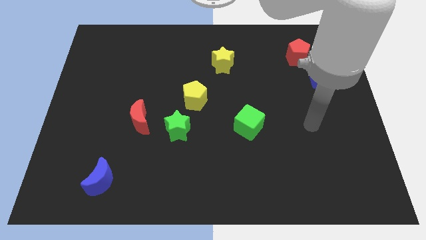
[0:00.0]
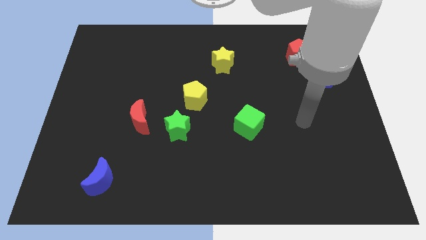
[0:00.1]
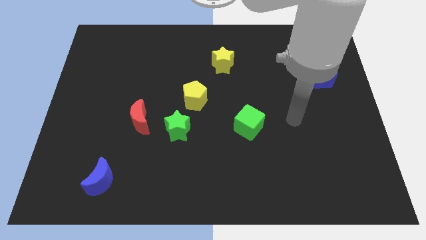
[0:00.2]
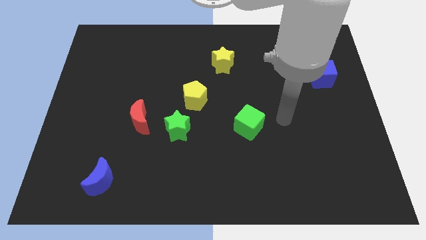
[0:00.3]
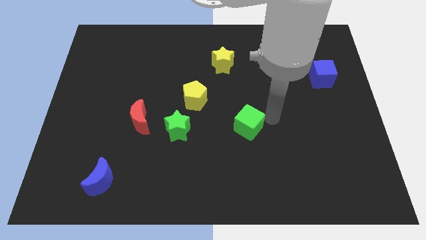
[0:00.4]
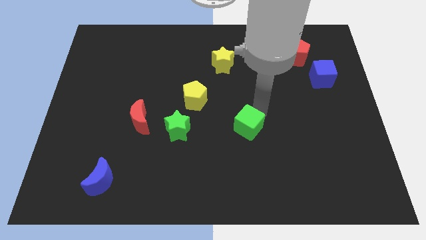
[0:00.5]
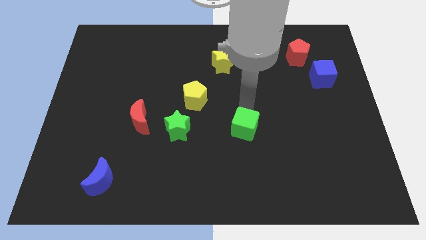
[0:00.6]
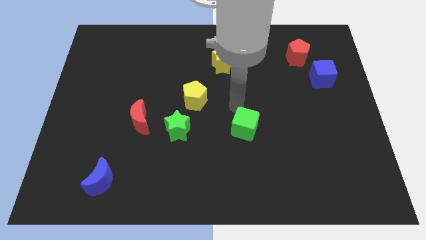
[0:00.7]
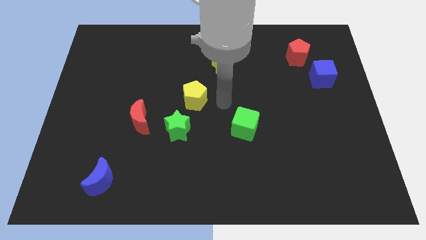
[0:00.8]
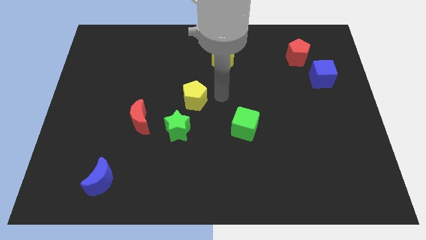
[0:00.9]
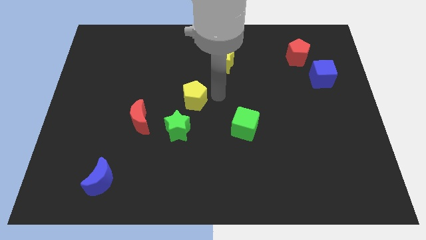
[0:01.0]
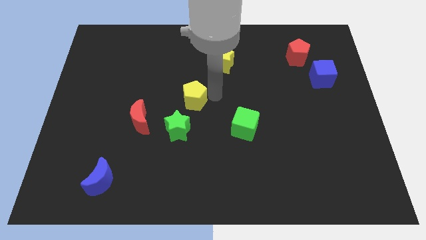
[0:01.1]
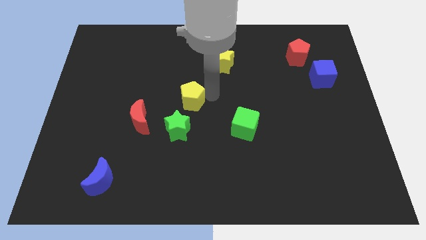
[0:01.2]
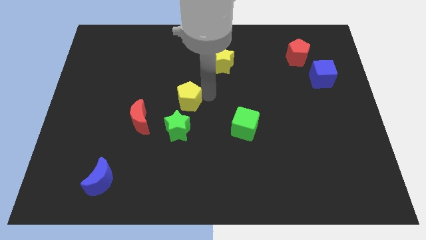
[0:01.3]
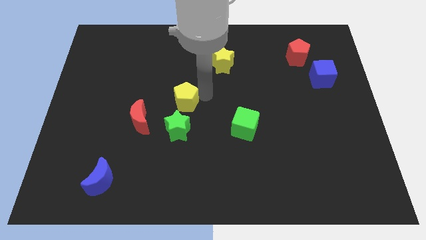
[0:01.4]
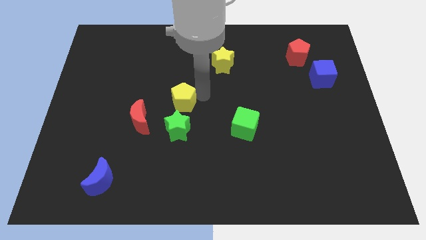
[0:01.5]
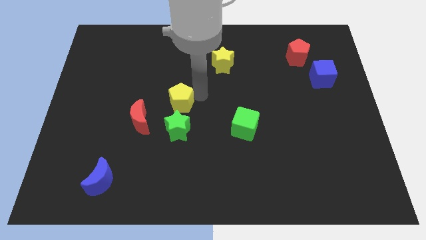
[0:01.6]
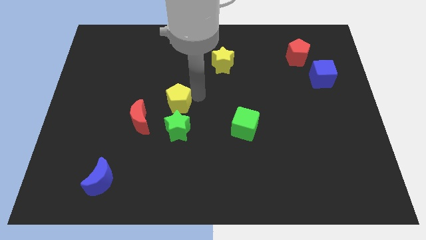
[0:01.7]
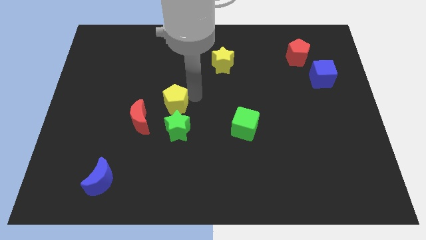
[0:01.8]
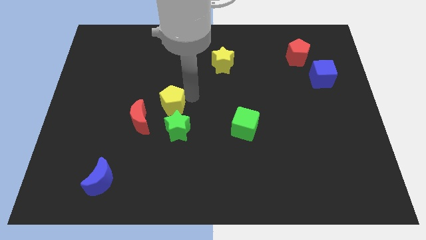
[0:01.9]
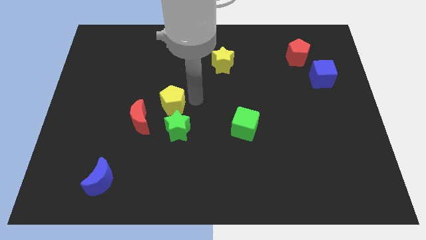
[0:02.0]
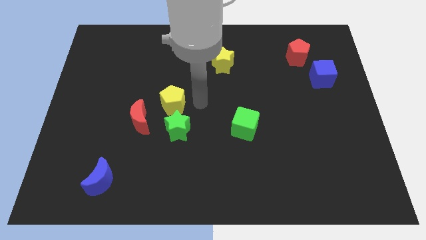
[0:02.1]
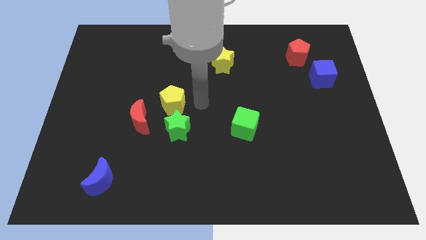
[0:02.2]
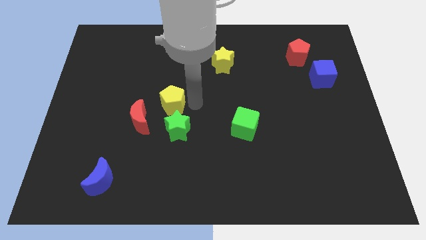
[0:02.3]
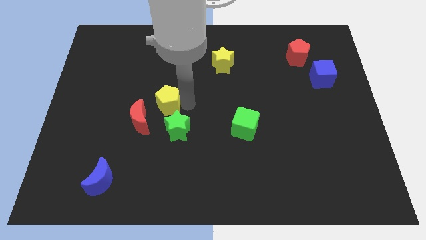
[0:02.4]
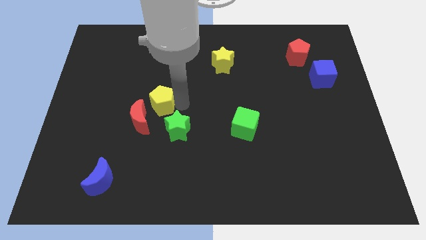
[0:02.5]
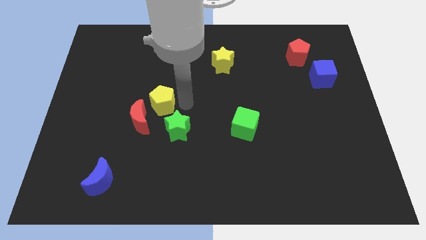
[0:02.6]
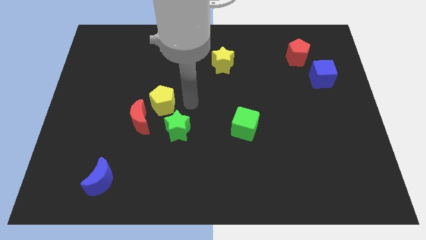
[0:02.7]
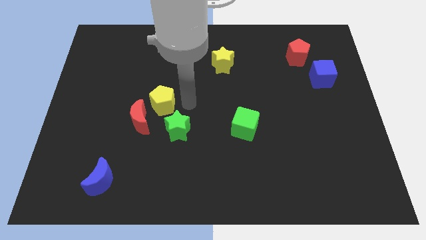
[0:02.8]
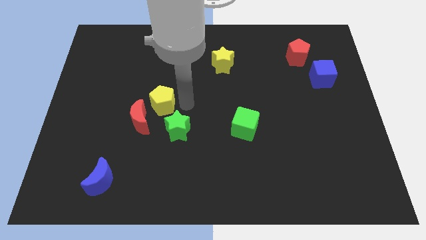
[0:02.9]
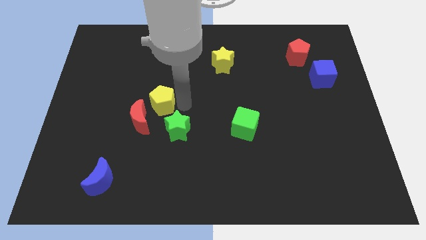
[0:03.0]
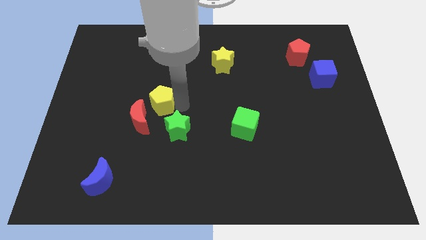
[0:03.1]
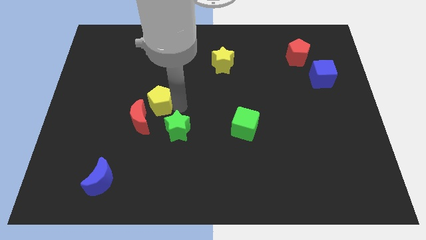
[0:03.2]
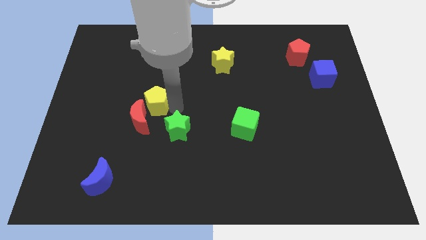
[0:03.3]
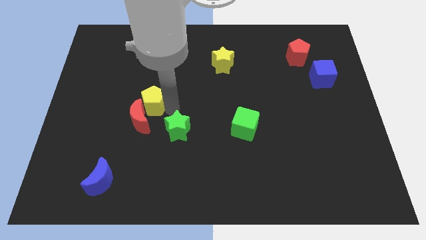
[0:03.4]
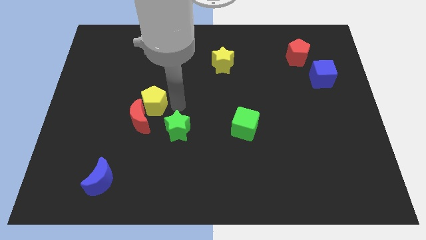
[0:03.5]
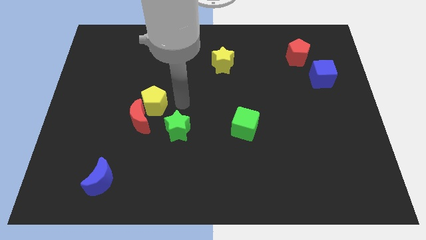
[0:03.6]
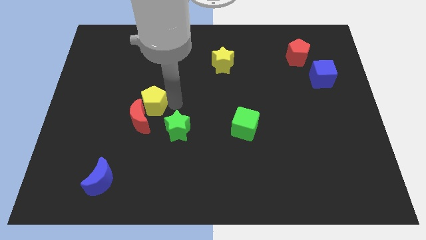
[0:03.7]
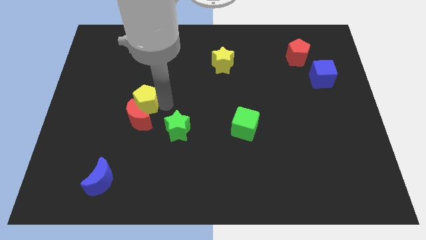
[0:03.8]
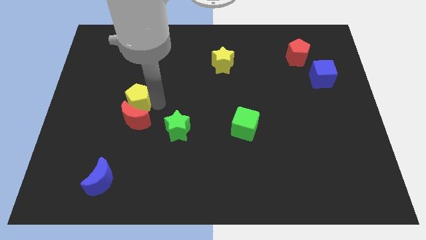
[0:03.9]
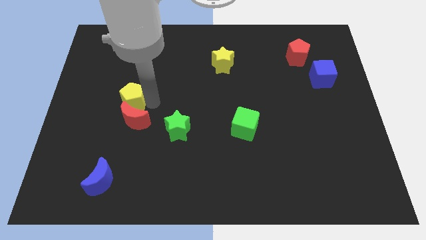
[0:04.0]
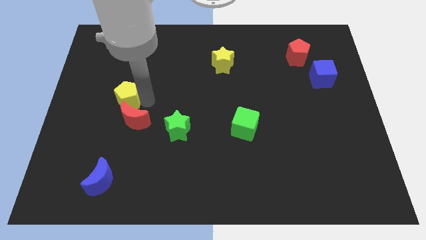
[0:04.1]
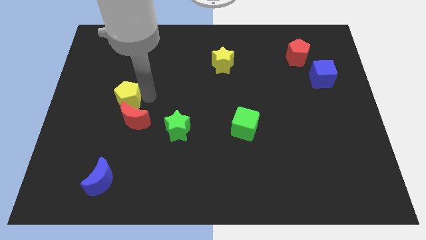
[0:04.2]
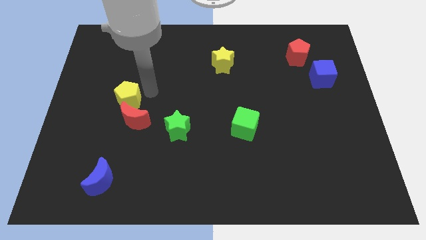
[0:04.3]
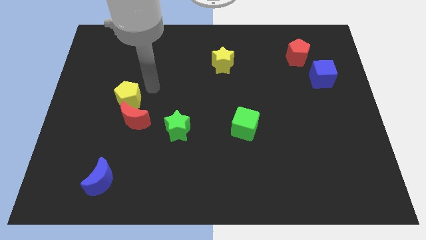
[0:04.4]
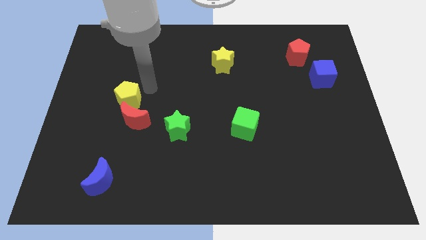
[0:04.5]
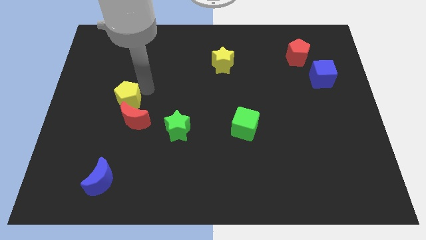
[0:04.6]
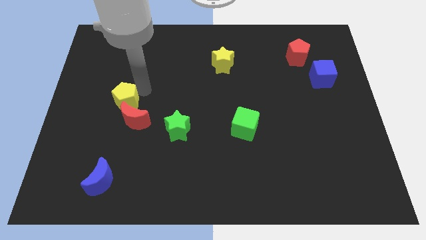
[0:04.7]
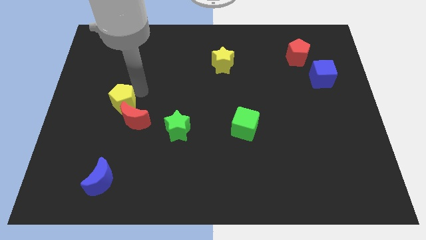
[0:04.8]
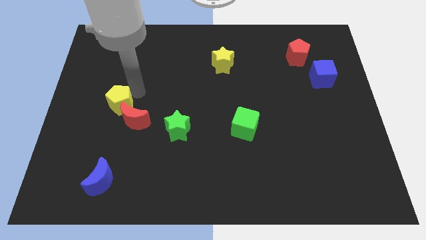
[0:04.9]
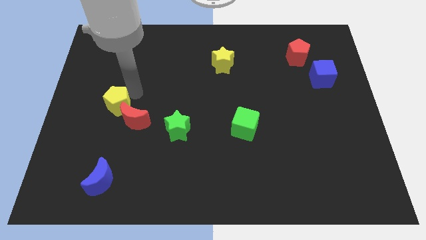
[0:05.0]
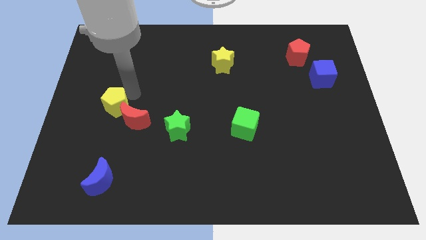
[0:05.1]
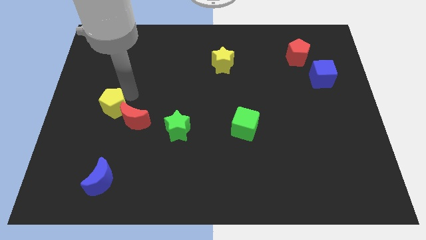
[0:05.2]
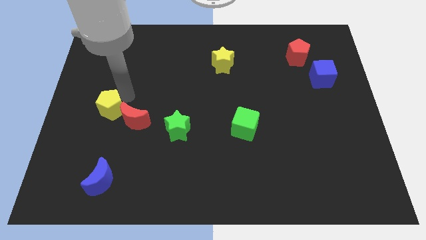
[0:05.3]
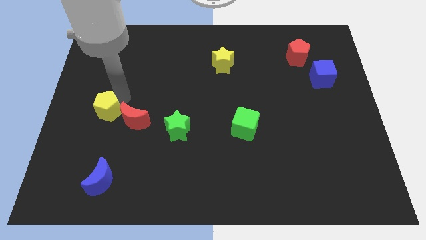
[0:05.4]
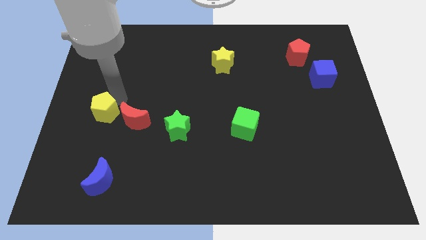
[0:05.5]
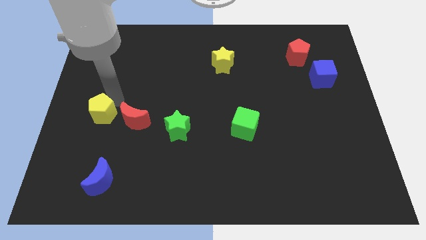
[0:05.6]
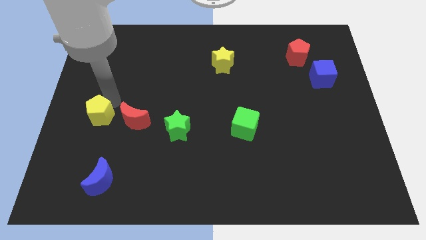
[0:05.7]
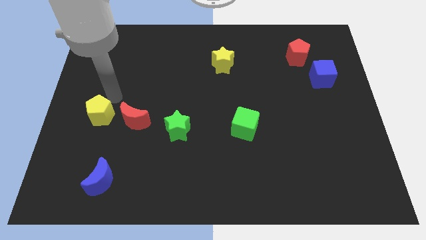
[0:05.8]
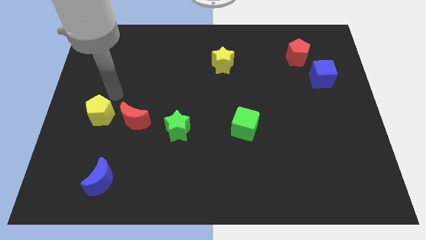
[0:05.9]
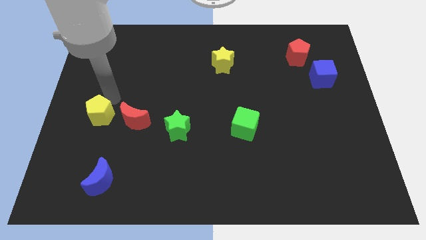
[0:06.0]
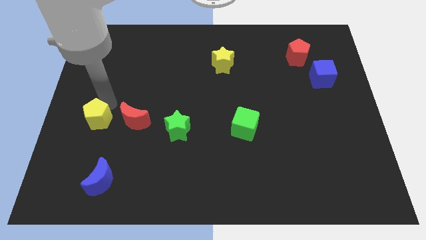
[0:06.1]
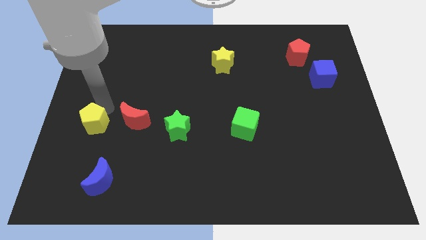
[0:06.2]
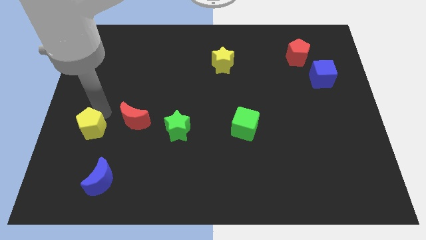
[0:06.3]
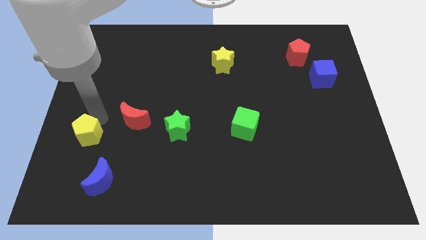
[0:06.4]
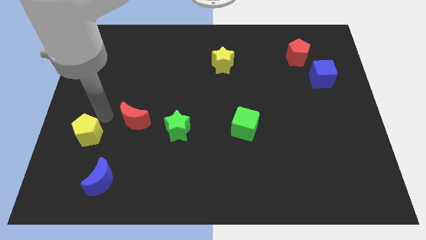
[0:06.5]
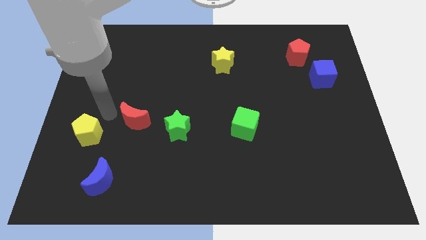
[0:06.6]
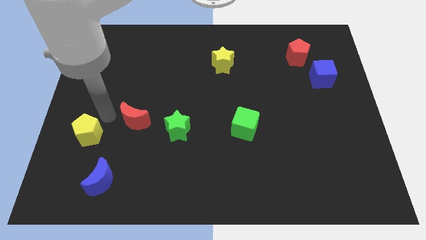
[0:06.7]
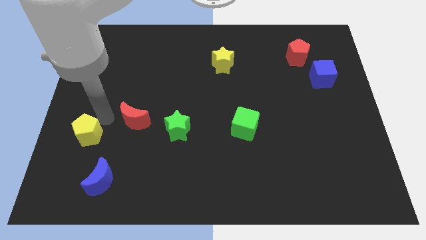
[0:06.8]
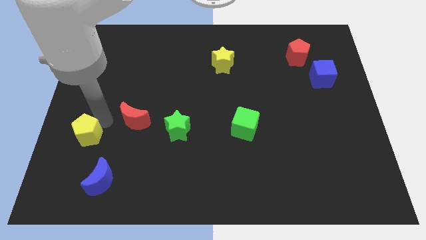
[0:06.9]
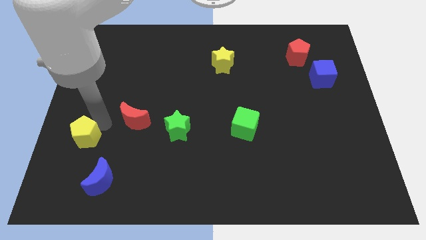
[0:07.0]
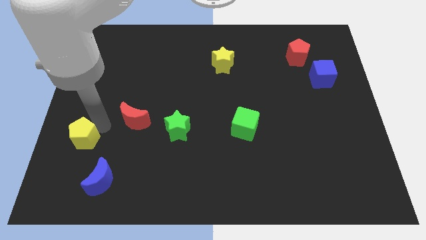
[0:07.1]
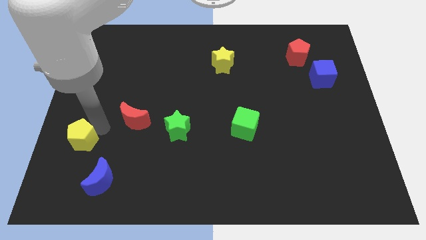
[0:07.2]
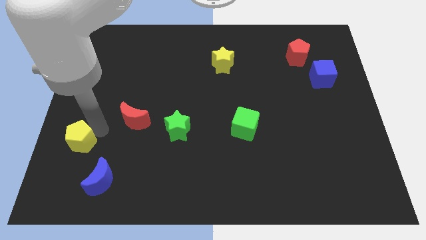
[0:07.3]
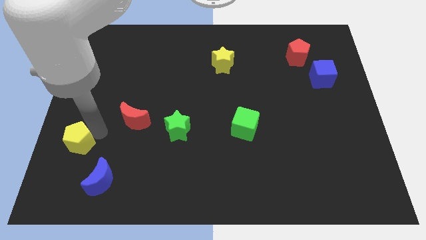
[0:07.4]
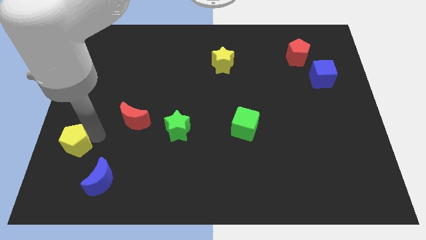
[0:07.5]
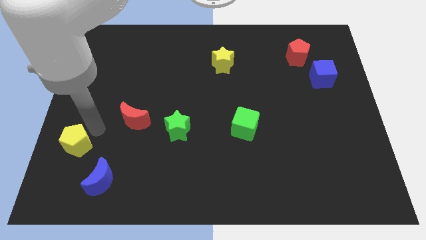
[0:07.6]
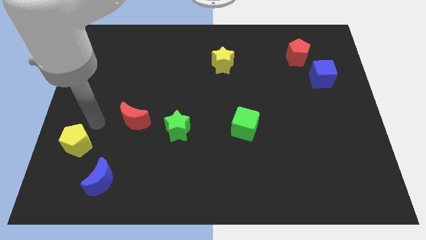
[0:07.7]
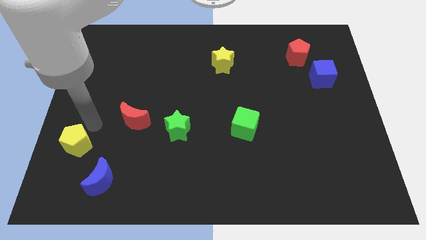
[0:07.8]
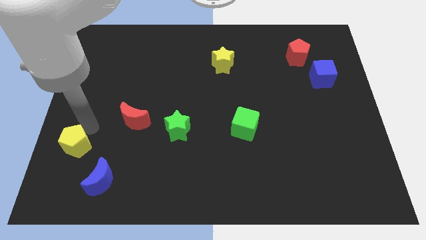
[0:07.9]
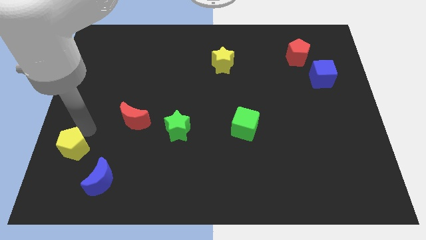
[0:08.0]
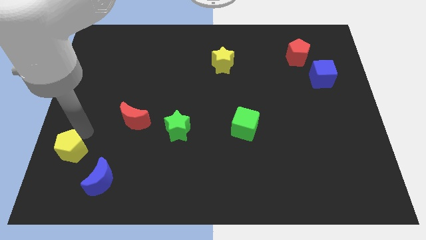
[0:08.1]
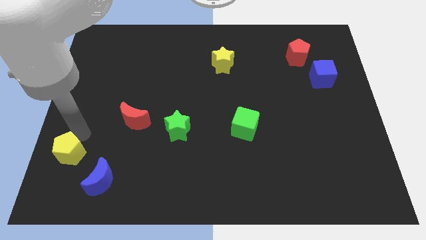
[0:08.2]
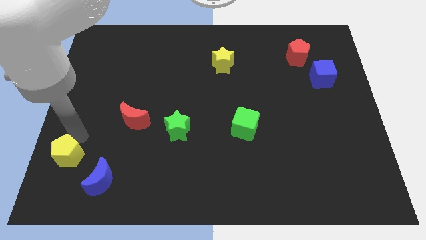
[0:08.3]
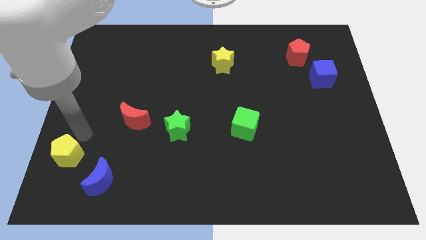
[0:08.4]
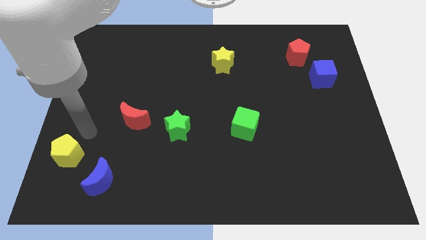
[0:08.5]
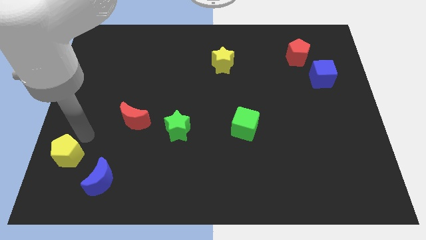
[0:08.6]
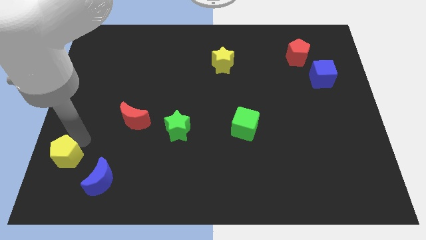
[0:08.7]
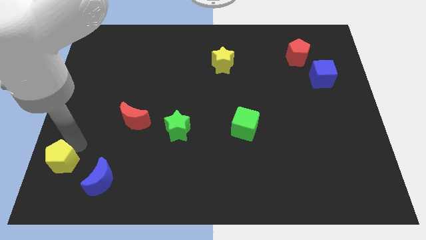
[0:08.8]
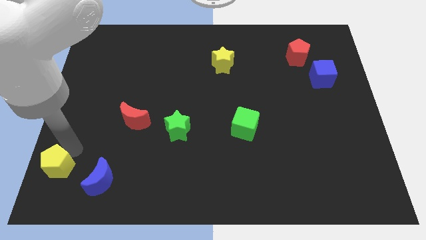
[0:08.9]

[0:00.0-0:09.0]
push the yellow pentagon to the bottom left corner
